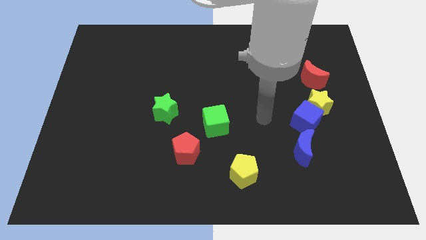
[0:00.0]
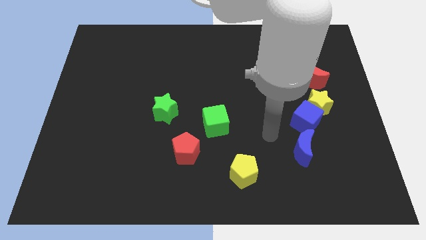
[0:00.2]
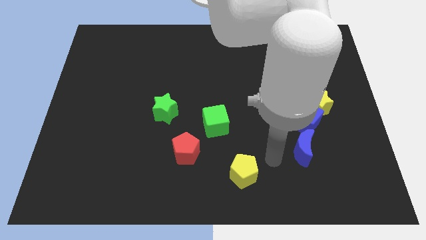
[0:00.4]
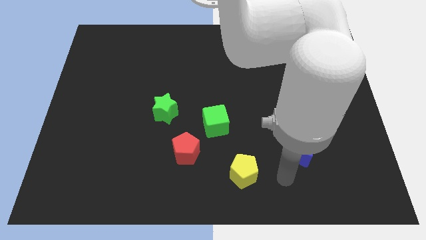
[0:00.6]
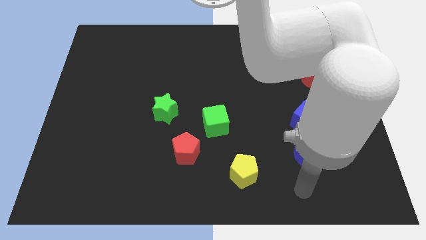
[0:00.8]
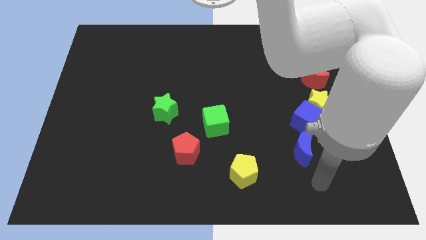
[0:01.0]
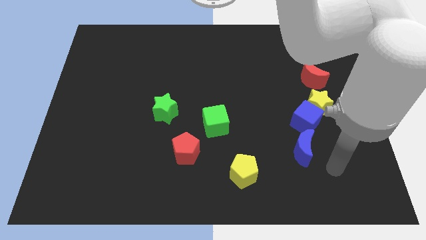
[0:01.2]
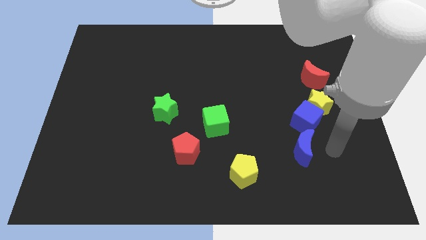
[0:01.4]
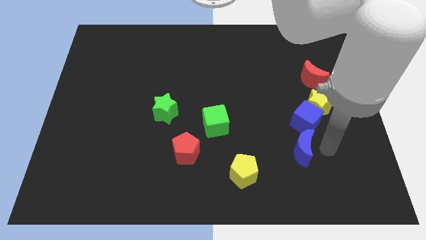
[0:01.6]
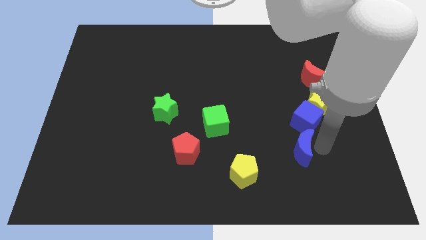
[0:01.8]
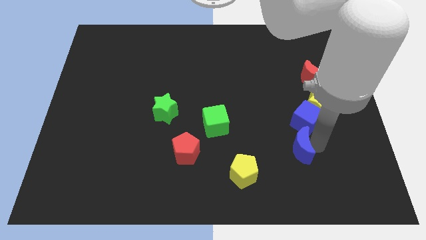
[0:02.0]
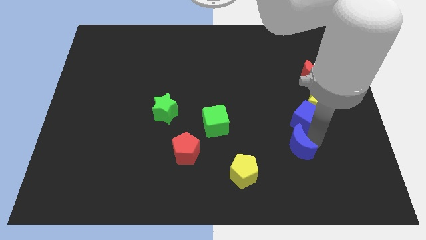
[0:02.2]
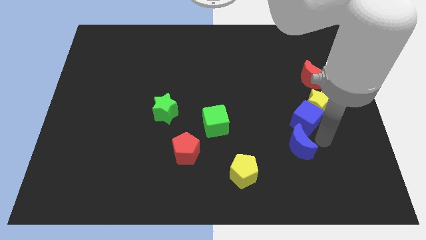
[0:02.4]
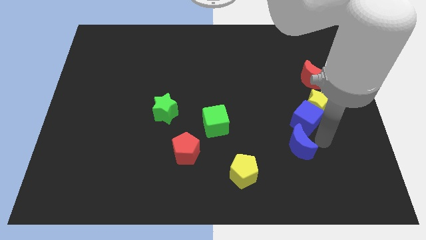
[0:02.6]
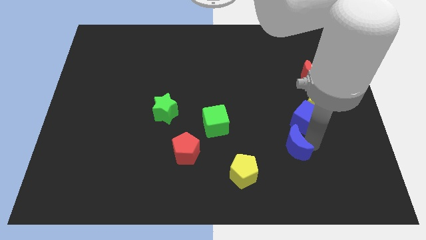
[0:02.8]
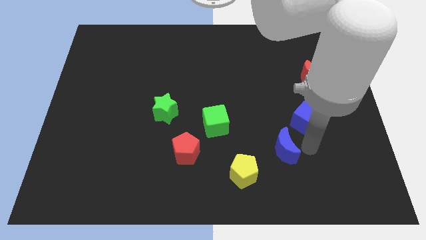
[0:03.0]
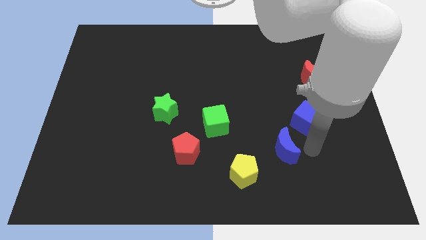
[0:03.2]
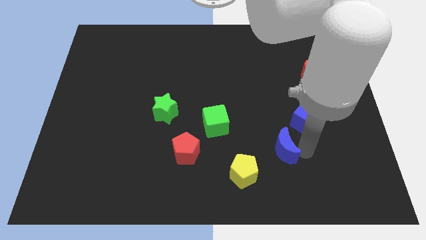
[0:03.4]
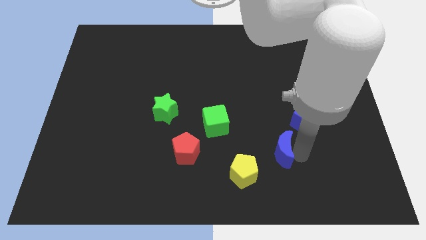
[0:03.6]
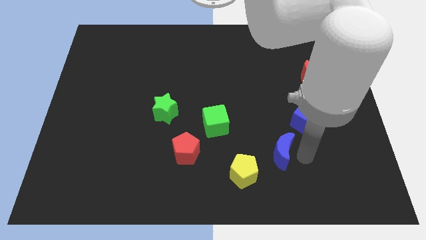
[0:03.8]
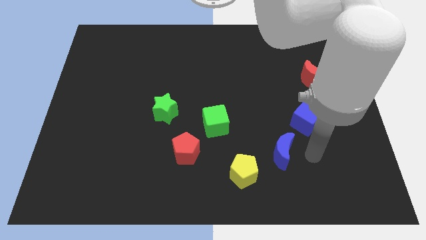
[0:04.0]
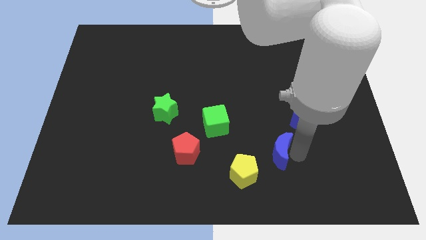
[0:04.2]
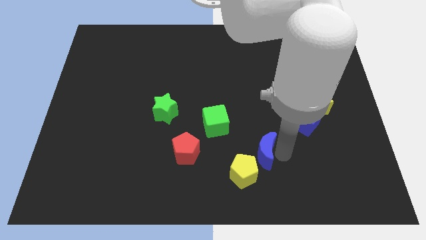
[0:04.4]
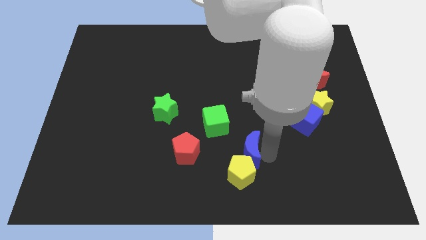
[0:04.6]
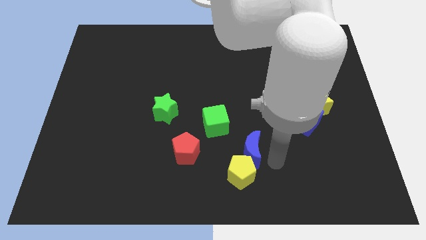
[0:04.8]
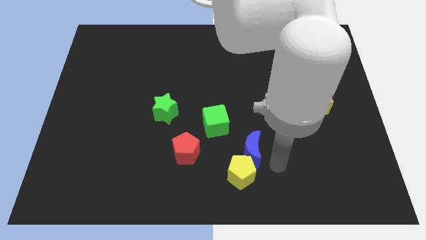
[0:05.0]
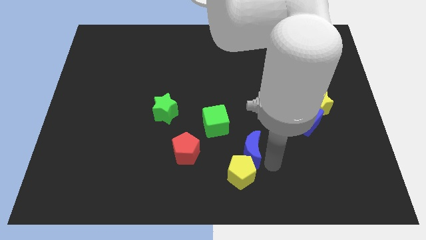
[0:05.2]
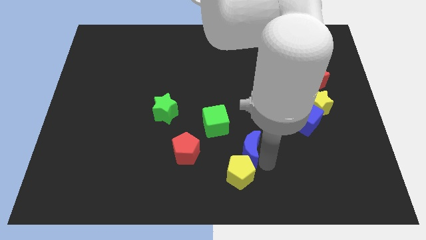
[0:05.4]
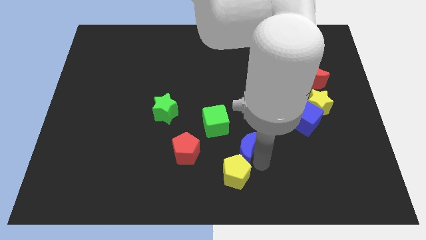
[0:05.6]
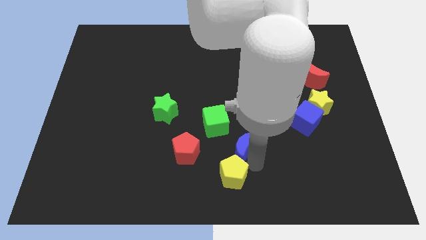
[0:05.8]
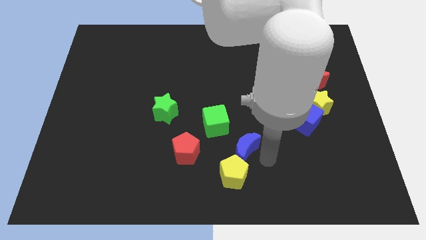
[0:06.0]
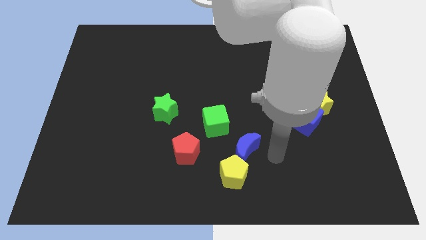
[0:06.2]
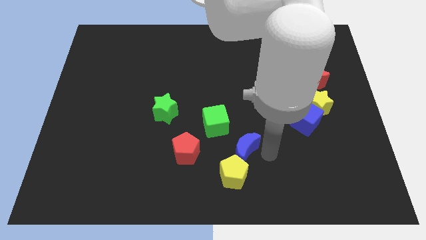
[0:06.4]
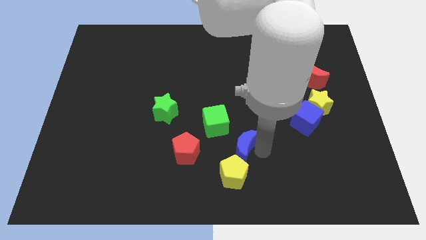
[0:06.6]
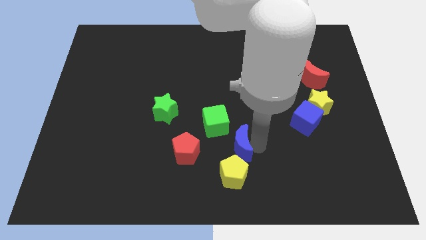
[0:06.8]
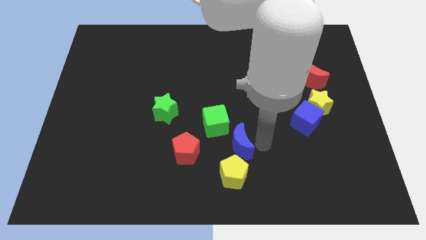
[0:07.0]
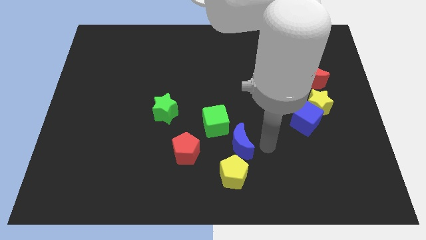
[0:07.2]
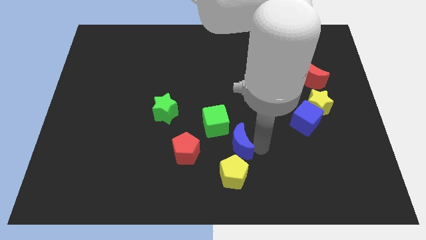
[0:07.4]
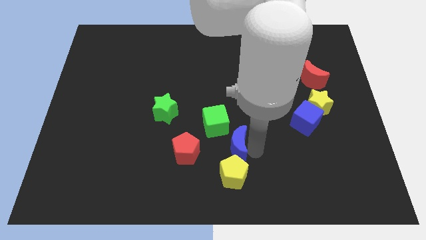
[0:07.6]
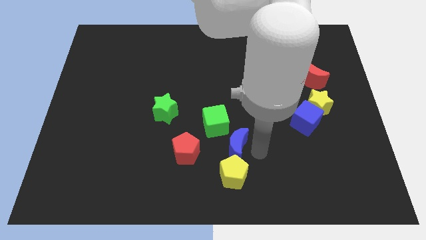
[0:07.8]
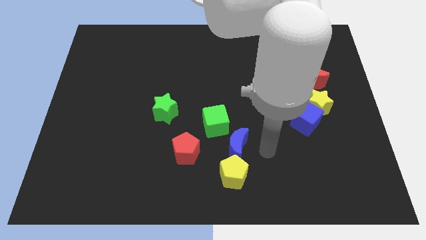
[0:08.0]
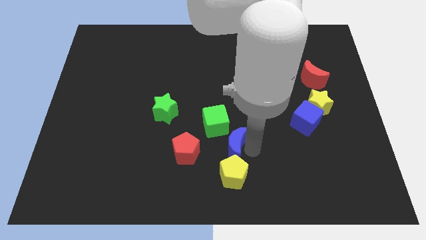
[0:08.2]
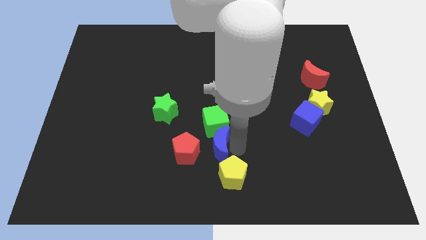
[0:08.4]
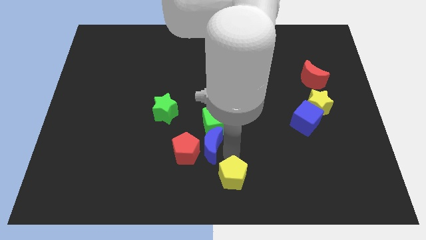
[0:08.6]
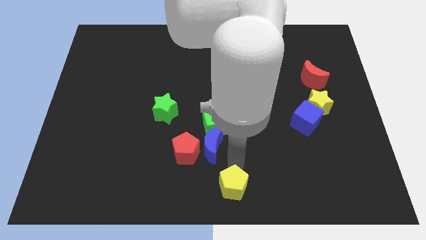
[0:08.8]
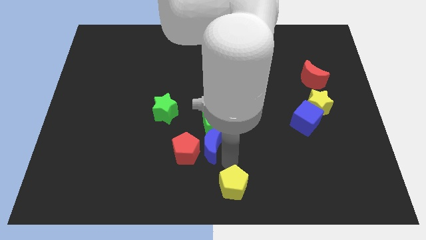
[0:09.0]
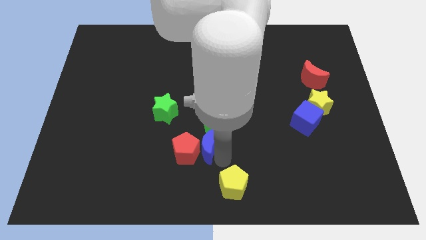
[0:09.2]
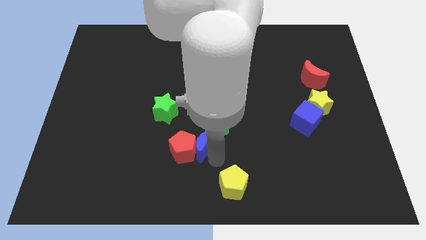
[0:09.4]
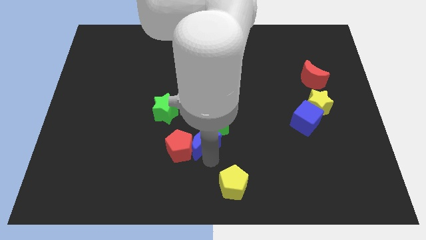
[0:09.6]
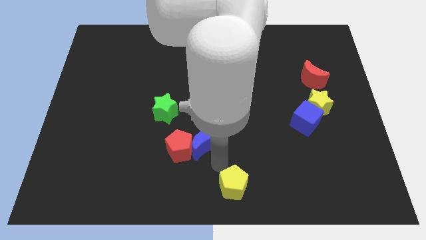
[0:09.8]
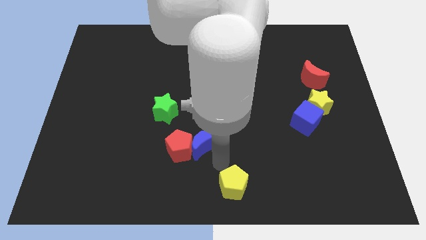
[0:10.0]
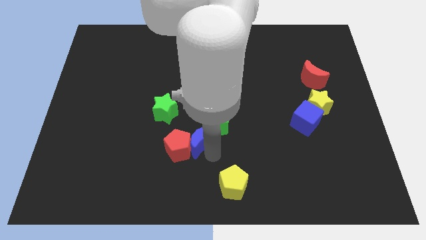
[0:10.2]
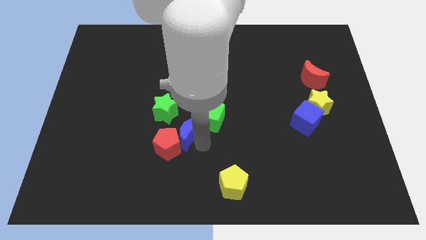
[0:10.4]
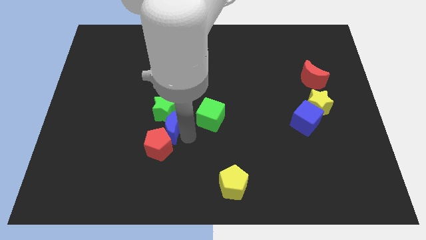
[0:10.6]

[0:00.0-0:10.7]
put the blue moon next to the green star

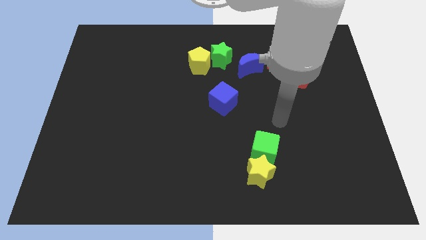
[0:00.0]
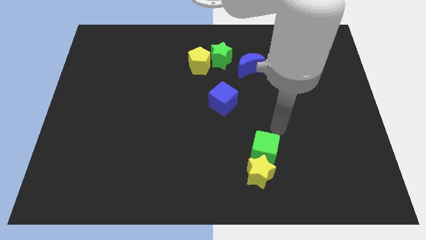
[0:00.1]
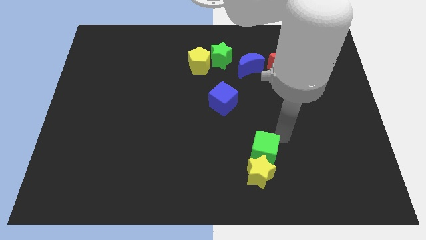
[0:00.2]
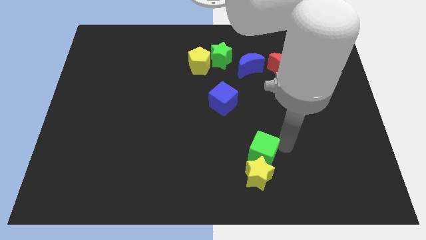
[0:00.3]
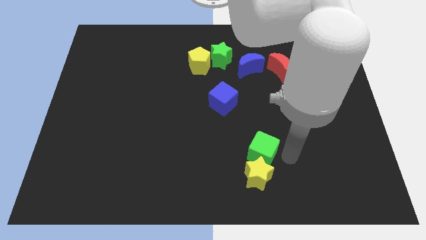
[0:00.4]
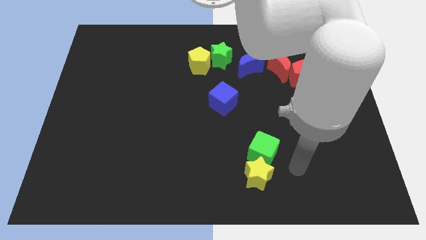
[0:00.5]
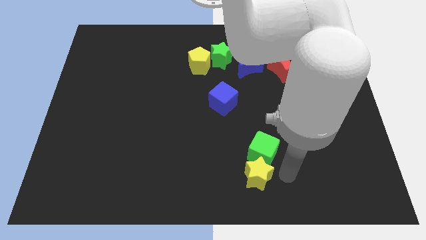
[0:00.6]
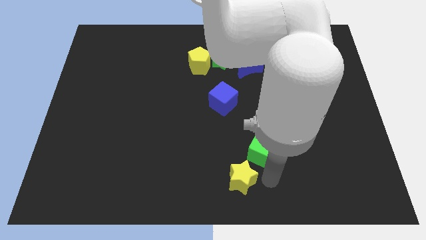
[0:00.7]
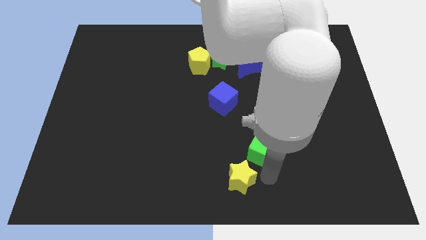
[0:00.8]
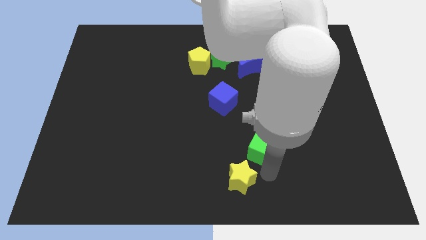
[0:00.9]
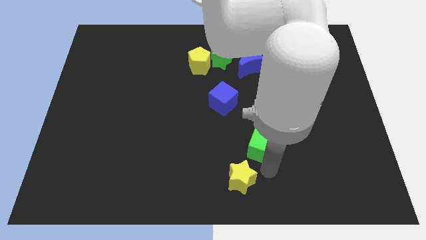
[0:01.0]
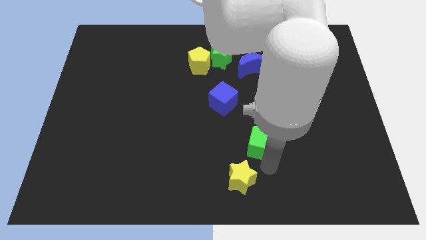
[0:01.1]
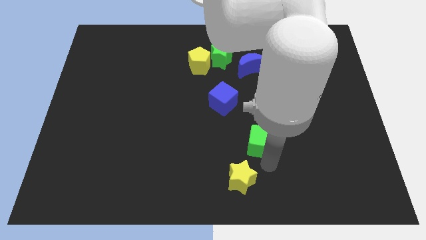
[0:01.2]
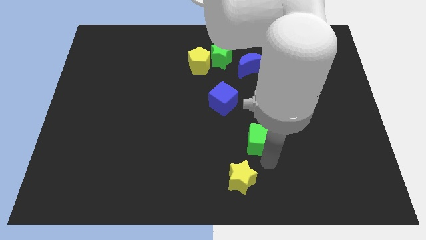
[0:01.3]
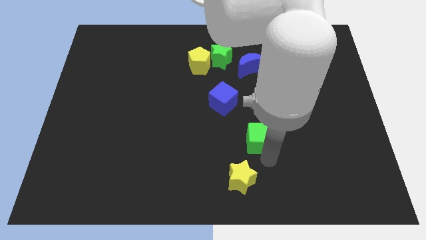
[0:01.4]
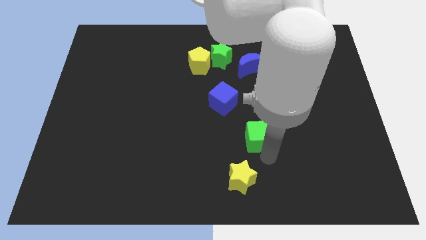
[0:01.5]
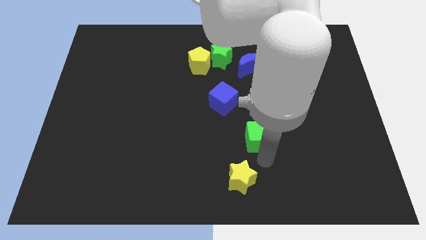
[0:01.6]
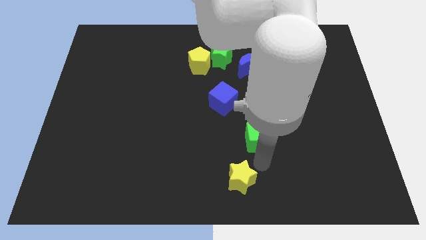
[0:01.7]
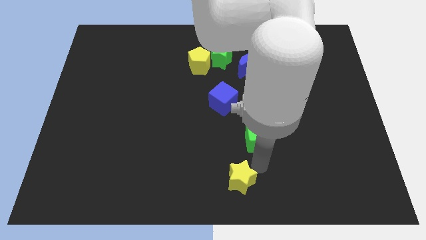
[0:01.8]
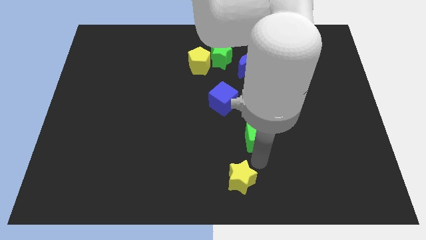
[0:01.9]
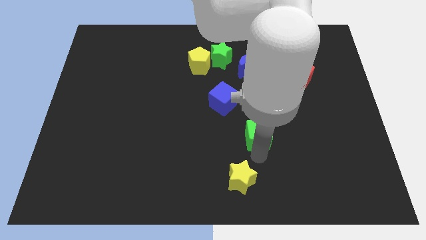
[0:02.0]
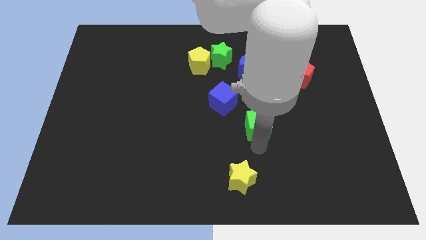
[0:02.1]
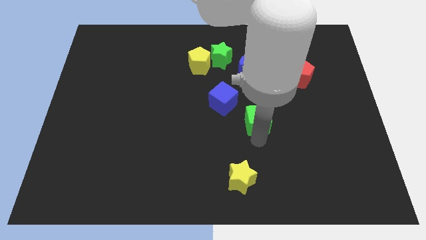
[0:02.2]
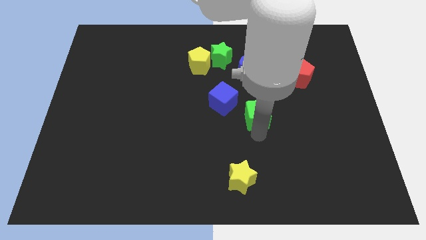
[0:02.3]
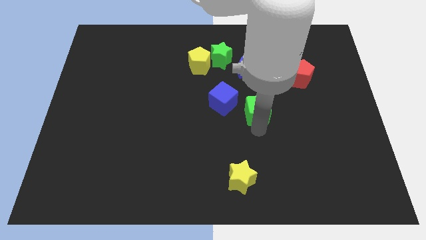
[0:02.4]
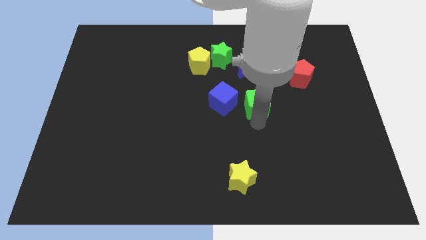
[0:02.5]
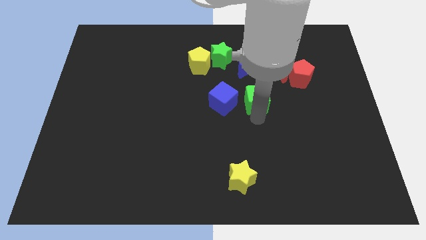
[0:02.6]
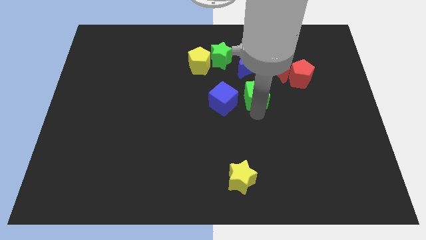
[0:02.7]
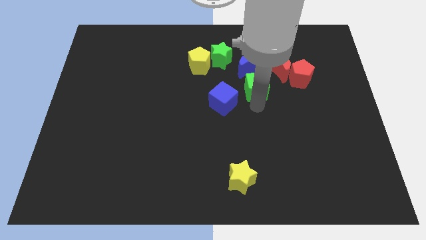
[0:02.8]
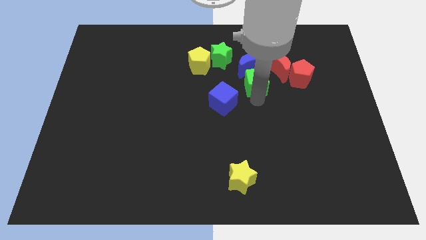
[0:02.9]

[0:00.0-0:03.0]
slide the green cube next to the blue moon
